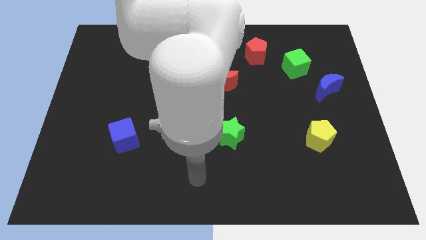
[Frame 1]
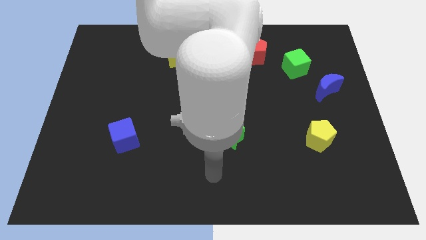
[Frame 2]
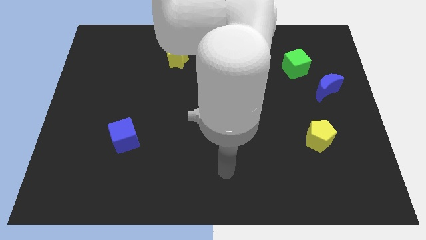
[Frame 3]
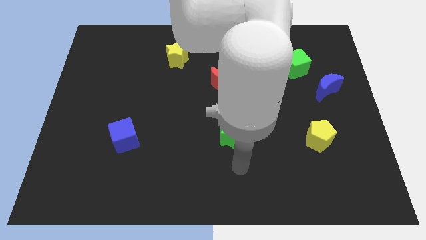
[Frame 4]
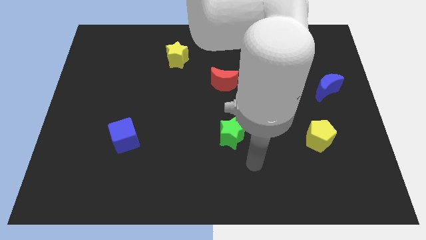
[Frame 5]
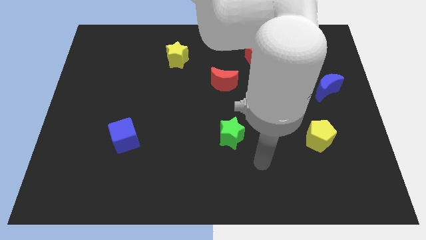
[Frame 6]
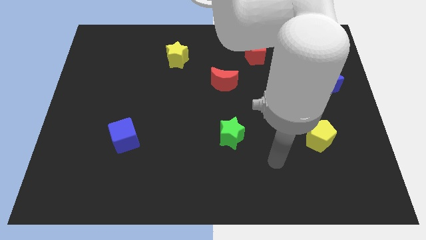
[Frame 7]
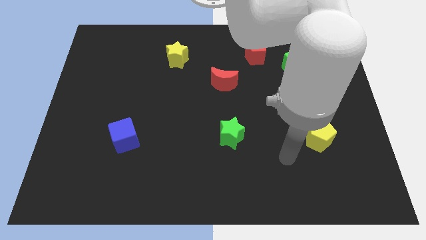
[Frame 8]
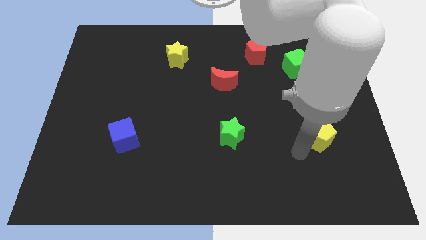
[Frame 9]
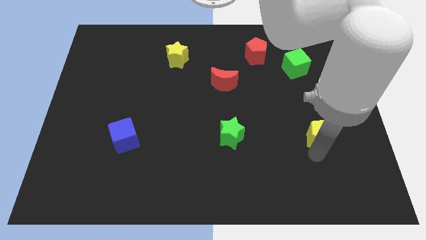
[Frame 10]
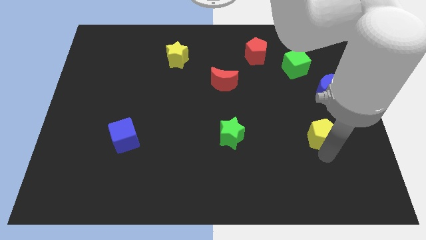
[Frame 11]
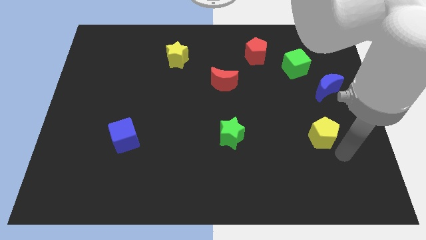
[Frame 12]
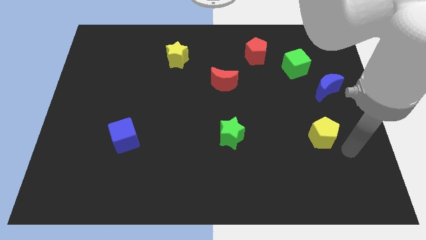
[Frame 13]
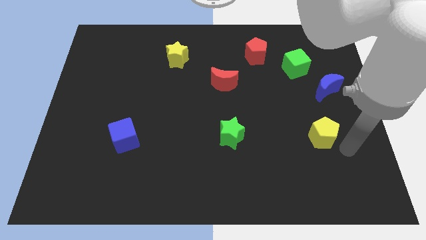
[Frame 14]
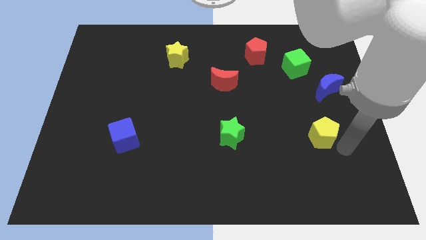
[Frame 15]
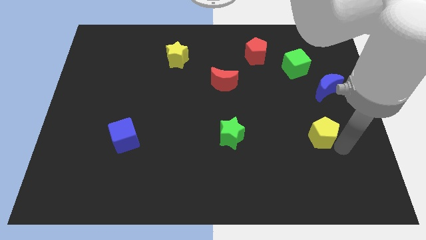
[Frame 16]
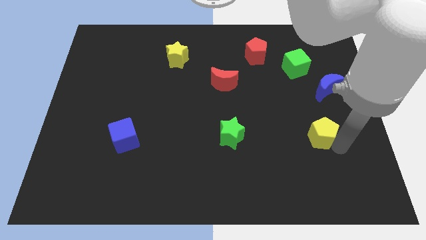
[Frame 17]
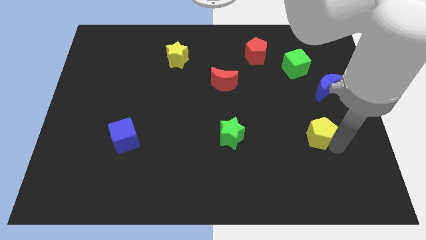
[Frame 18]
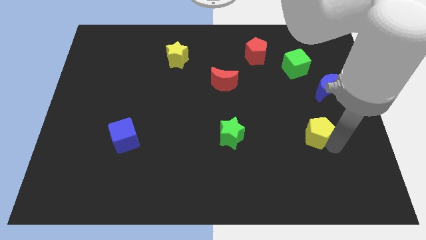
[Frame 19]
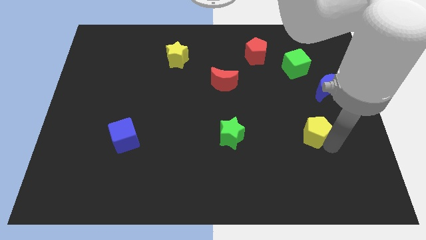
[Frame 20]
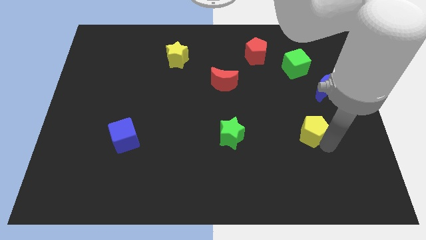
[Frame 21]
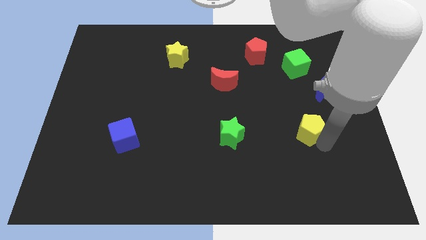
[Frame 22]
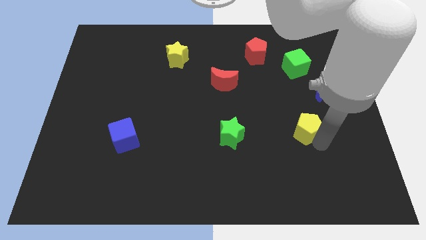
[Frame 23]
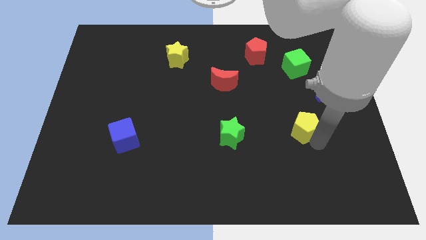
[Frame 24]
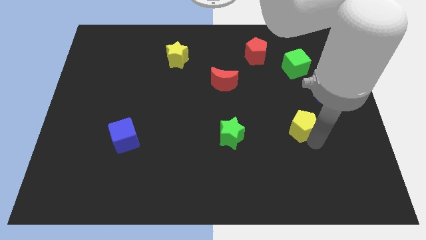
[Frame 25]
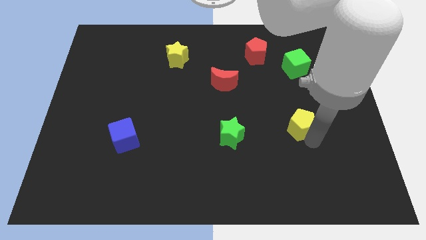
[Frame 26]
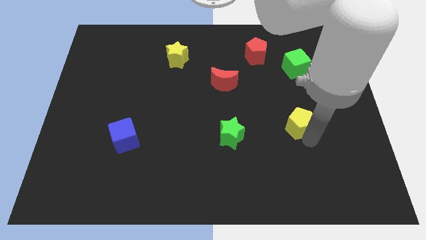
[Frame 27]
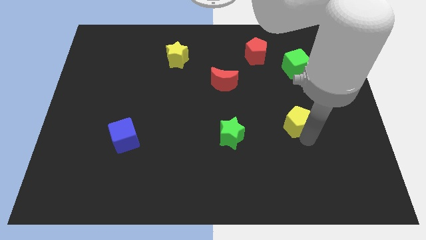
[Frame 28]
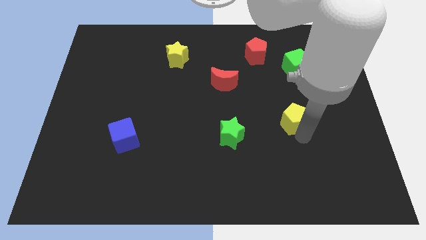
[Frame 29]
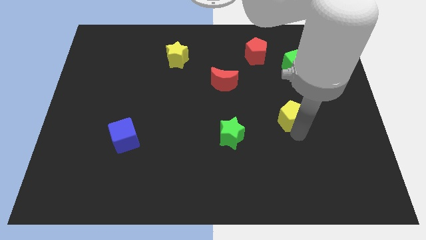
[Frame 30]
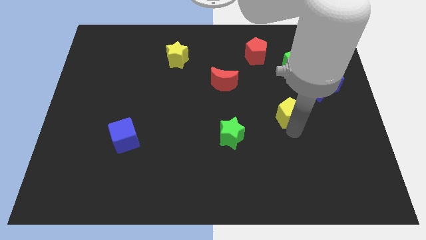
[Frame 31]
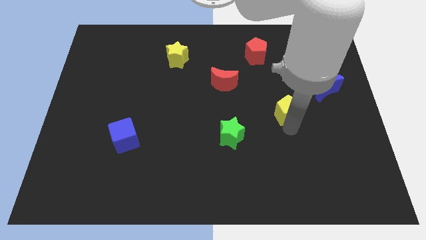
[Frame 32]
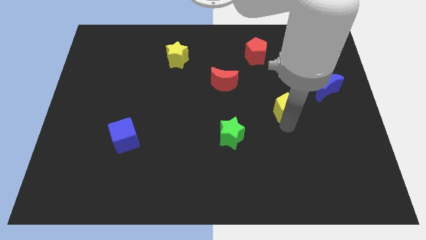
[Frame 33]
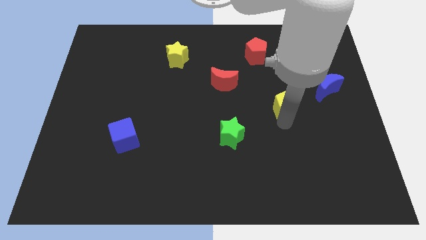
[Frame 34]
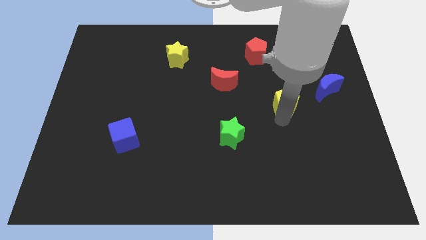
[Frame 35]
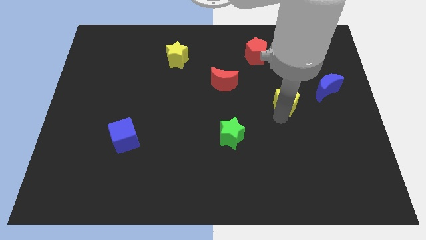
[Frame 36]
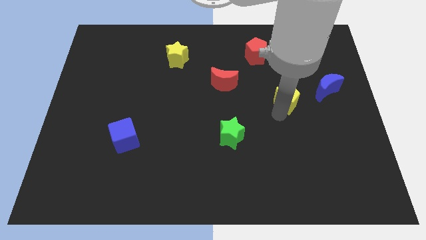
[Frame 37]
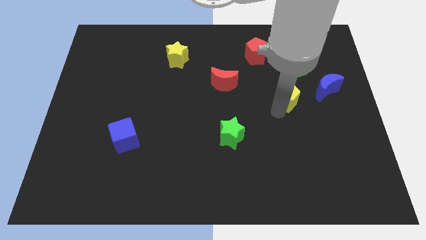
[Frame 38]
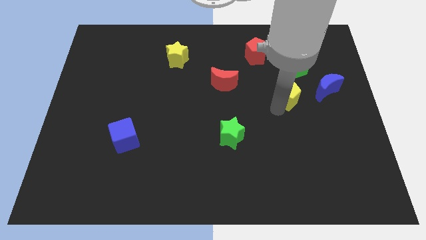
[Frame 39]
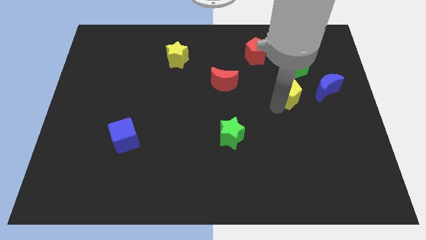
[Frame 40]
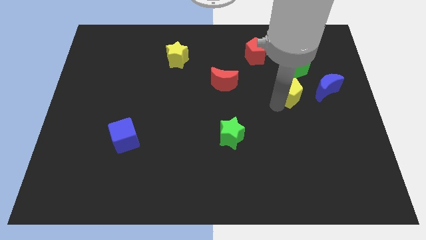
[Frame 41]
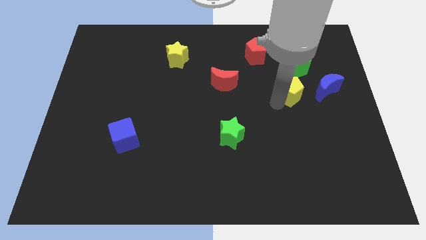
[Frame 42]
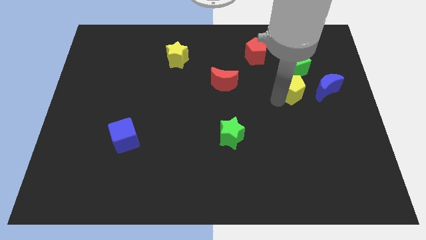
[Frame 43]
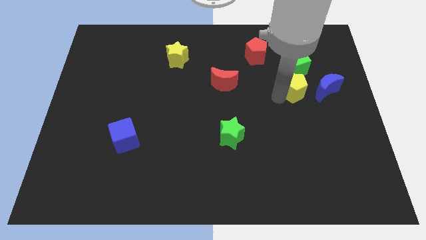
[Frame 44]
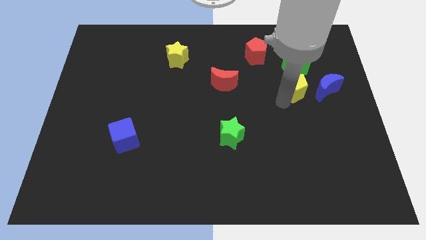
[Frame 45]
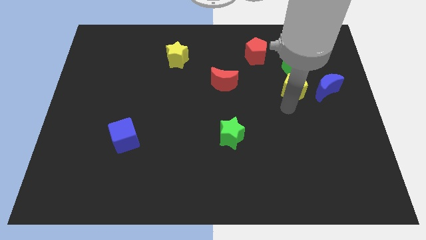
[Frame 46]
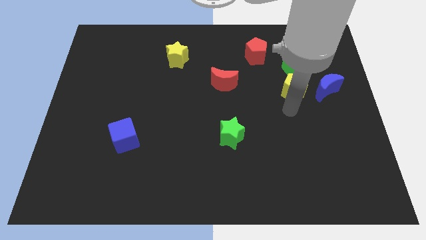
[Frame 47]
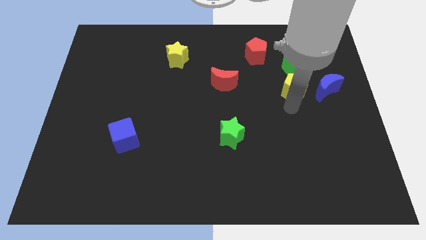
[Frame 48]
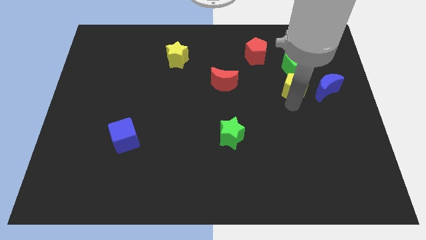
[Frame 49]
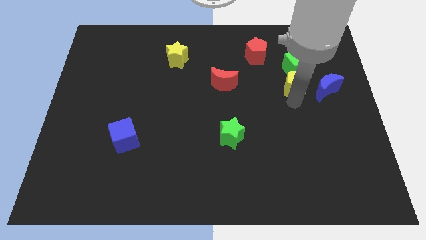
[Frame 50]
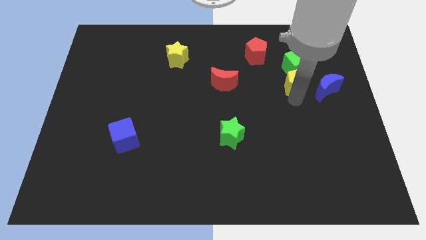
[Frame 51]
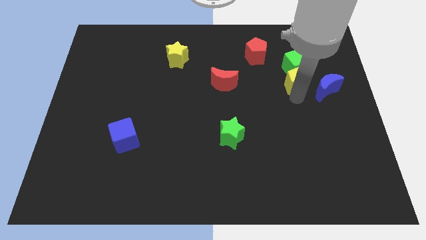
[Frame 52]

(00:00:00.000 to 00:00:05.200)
push the yellow pentagon to the green cube

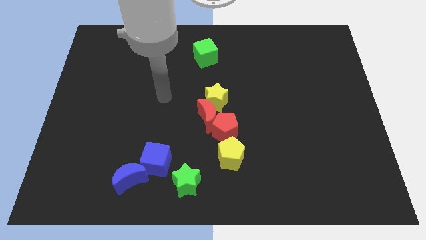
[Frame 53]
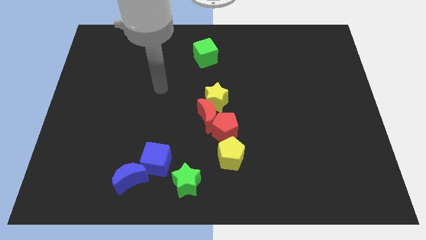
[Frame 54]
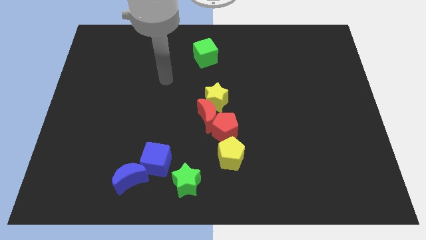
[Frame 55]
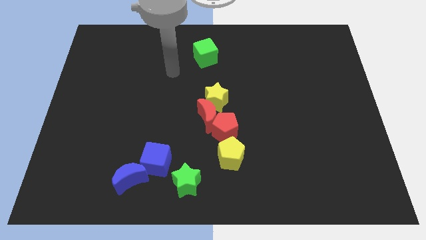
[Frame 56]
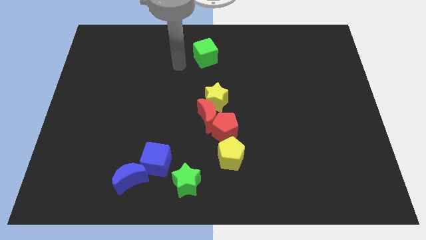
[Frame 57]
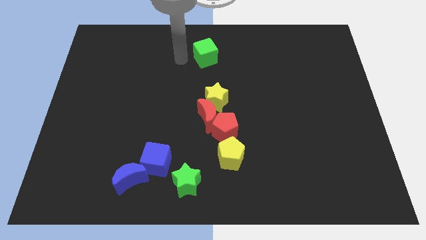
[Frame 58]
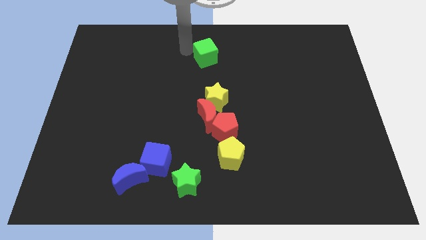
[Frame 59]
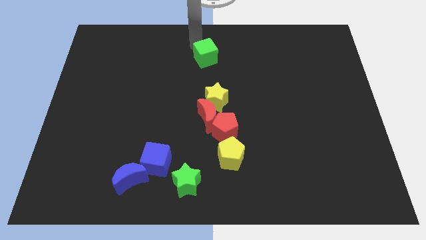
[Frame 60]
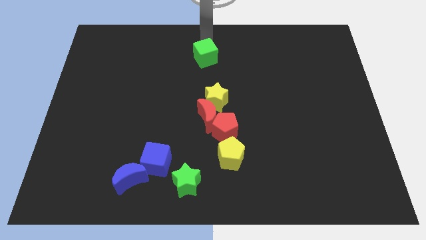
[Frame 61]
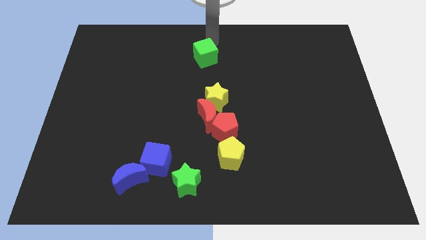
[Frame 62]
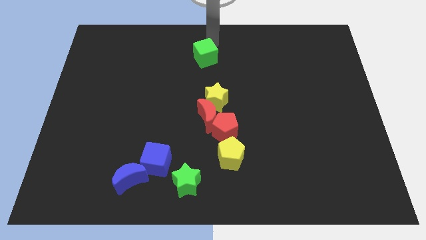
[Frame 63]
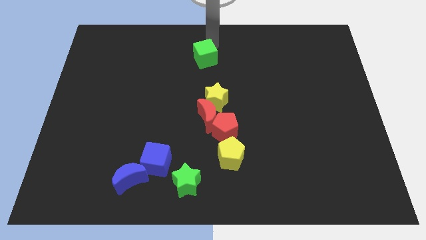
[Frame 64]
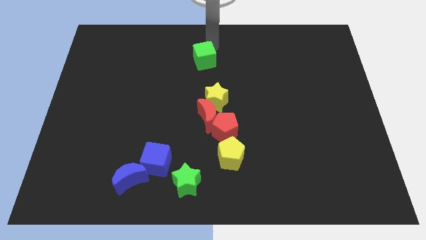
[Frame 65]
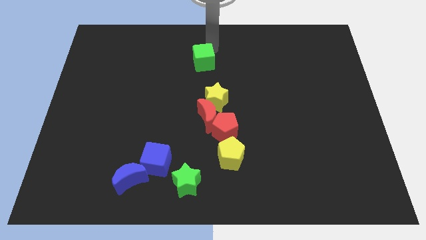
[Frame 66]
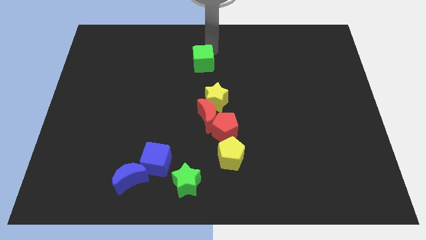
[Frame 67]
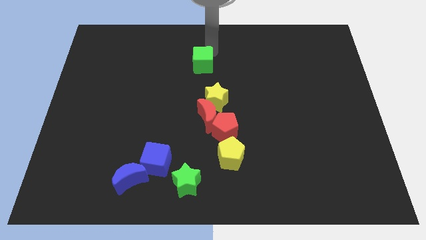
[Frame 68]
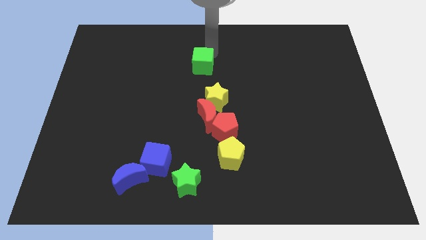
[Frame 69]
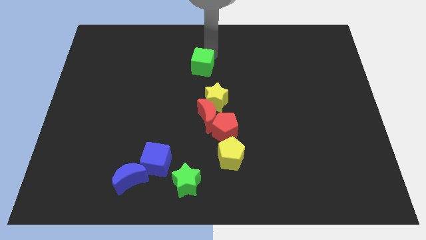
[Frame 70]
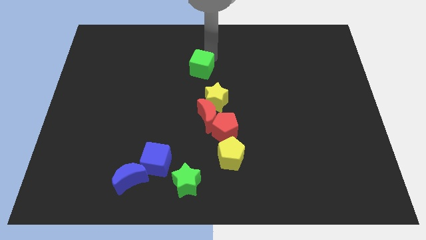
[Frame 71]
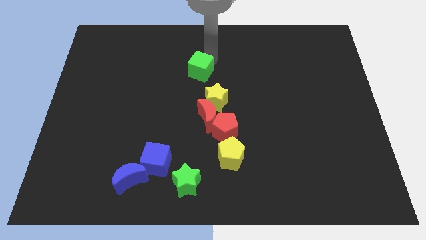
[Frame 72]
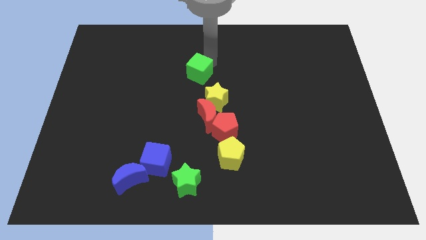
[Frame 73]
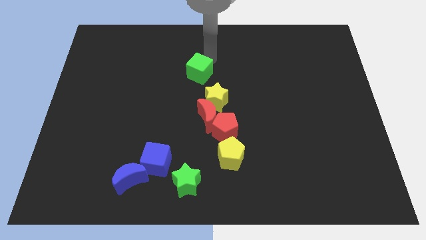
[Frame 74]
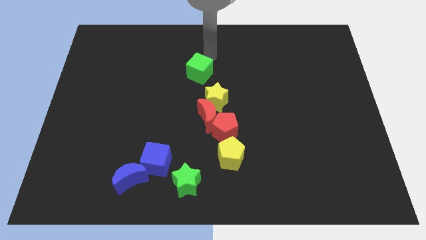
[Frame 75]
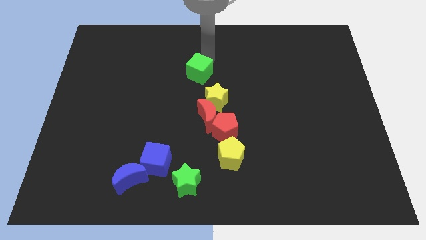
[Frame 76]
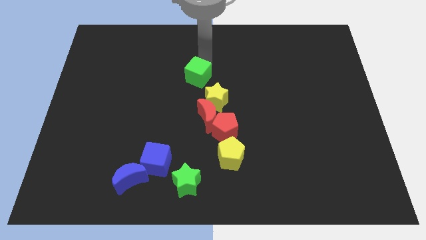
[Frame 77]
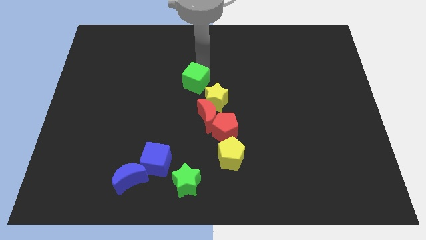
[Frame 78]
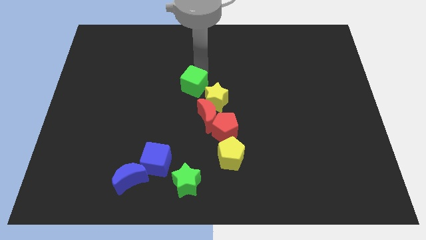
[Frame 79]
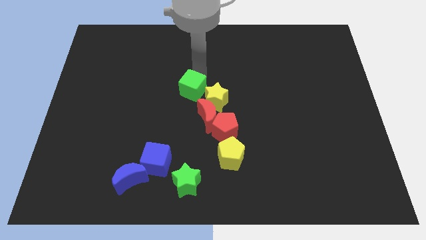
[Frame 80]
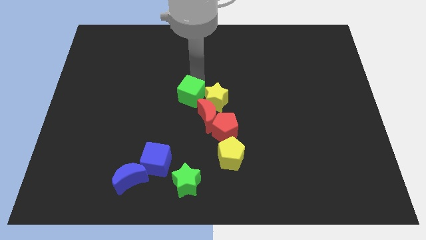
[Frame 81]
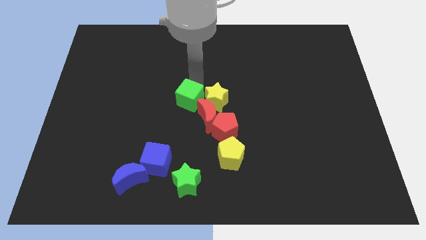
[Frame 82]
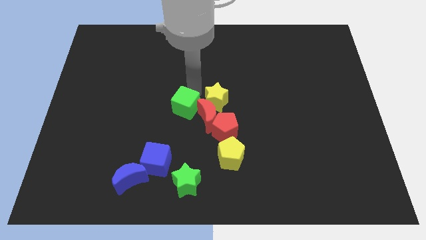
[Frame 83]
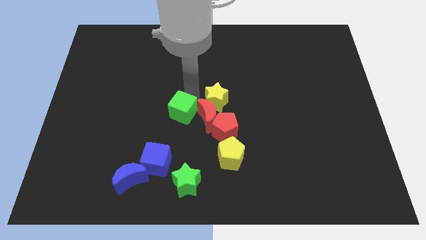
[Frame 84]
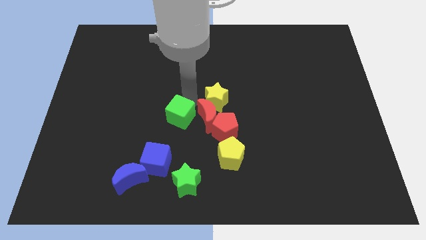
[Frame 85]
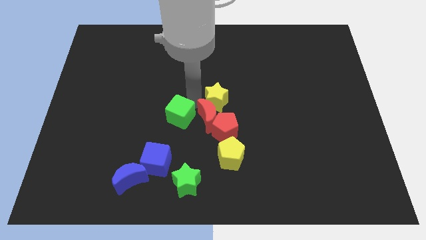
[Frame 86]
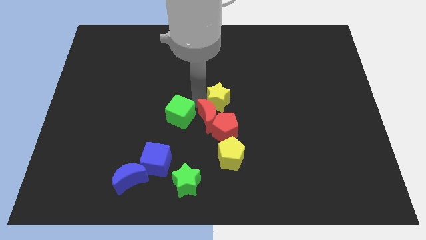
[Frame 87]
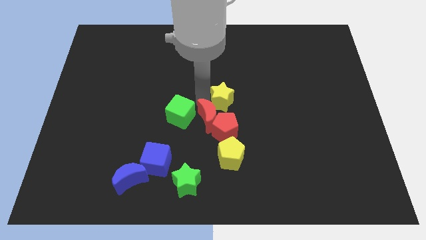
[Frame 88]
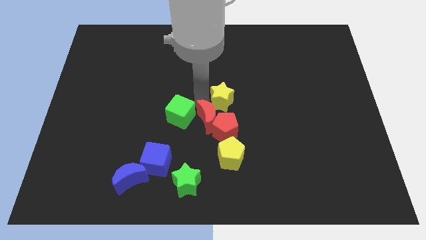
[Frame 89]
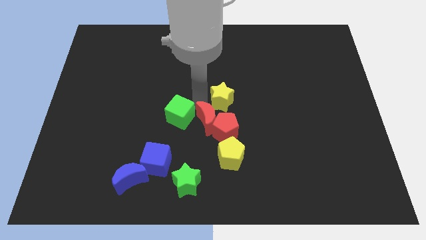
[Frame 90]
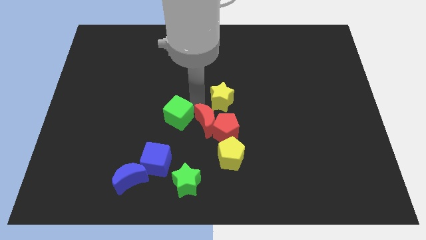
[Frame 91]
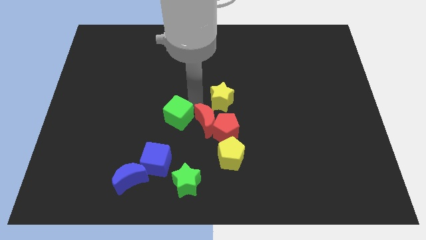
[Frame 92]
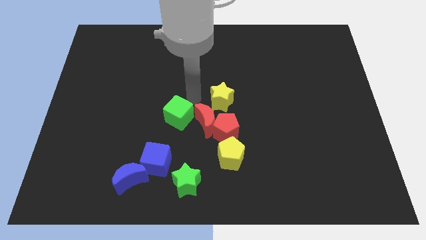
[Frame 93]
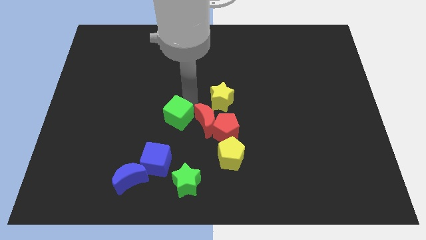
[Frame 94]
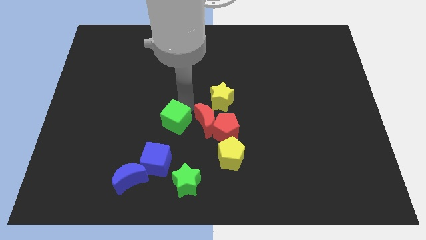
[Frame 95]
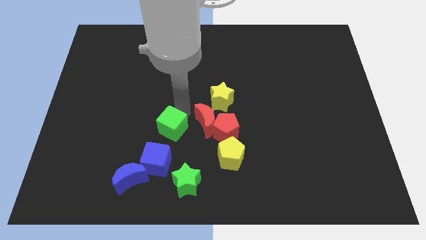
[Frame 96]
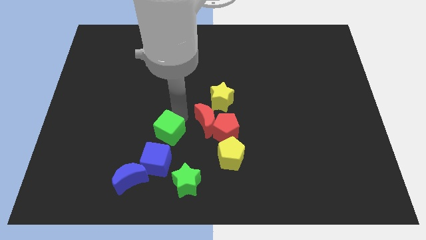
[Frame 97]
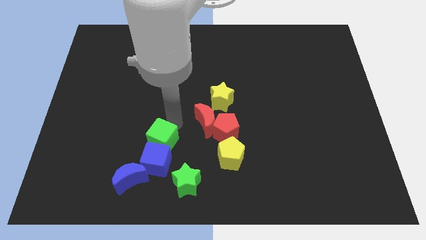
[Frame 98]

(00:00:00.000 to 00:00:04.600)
slide the green cube to the blue cube
